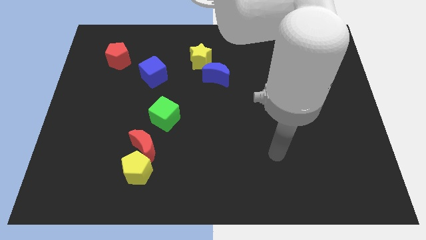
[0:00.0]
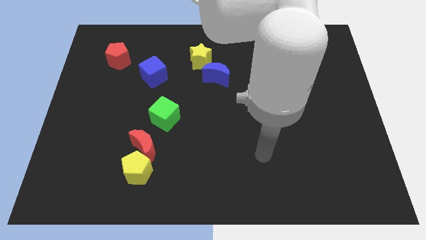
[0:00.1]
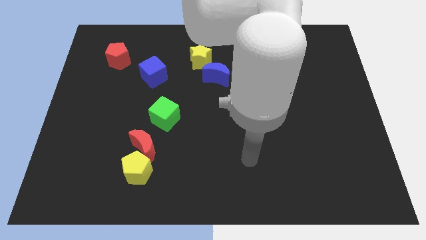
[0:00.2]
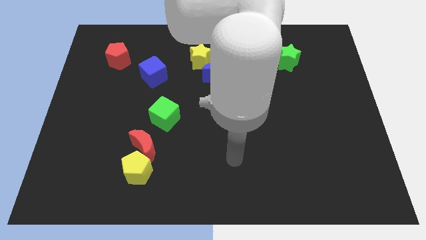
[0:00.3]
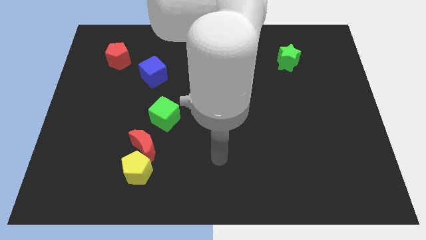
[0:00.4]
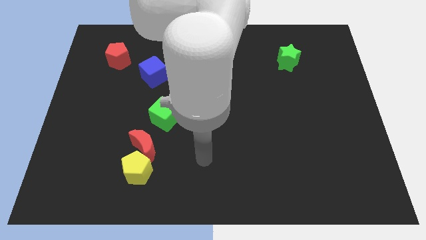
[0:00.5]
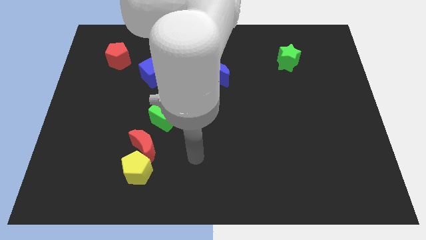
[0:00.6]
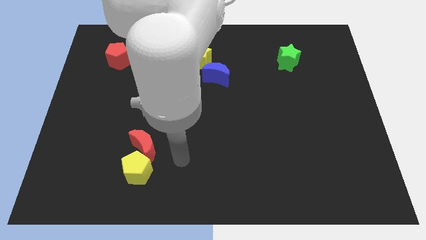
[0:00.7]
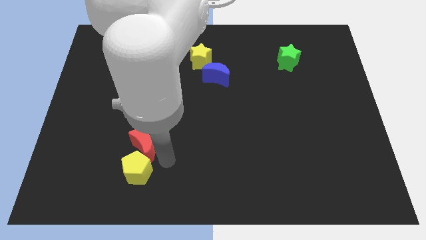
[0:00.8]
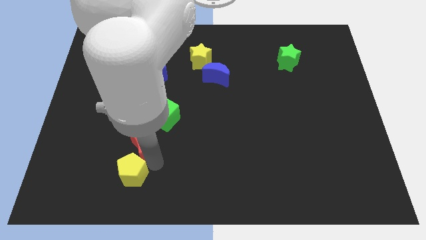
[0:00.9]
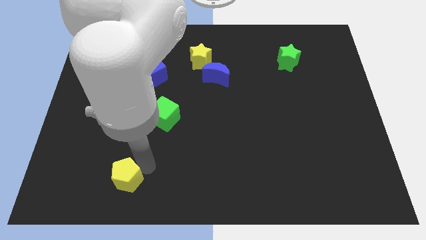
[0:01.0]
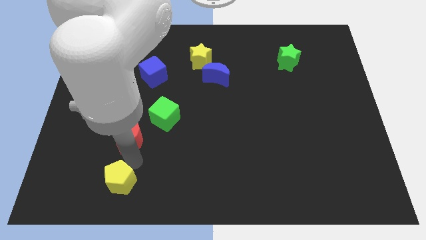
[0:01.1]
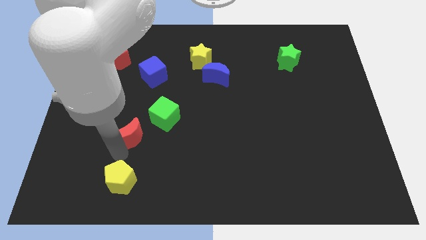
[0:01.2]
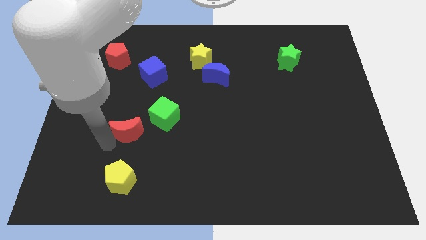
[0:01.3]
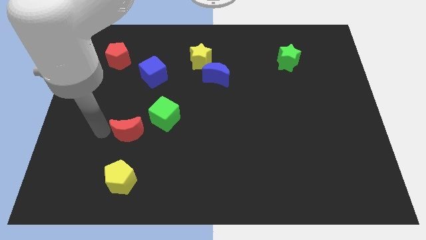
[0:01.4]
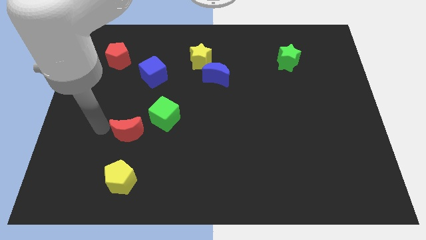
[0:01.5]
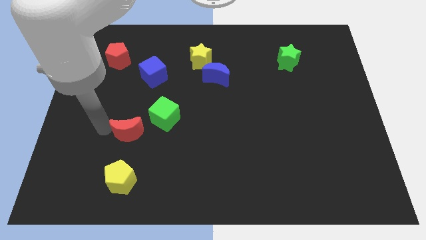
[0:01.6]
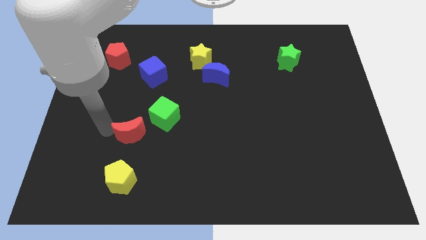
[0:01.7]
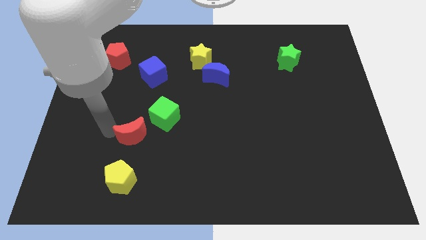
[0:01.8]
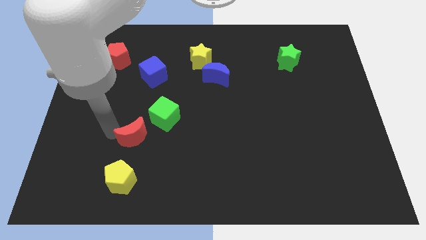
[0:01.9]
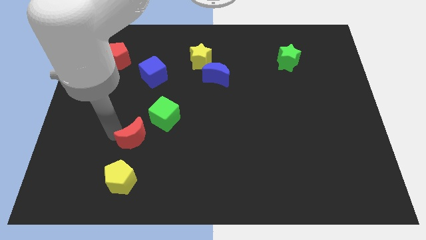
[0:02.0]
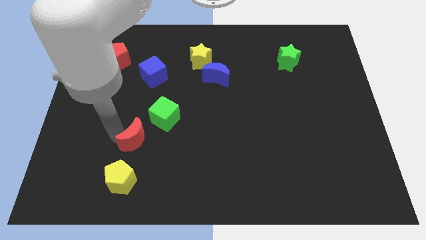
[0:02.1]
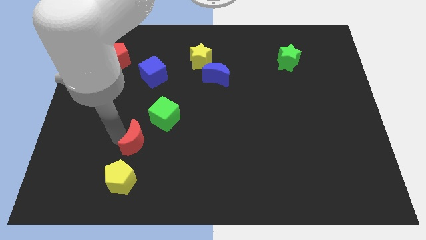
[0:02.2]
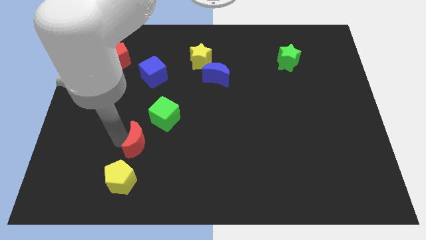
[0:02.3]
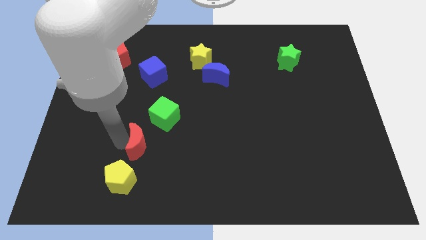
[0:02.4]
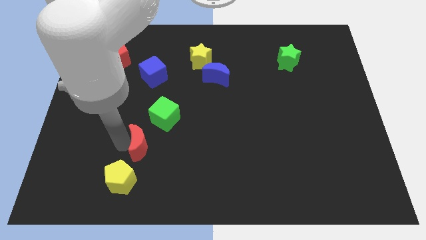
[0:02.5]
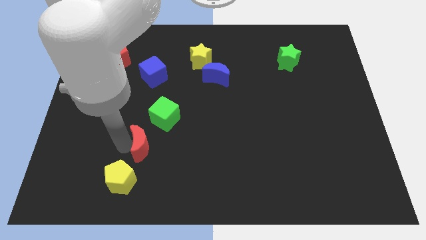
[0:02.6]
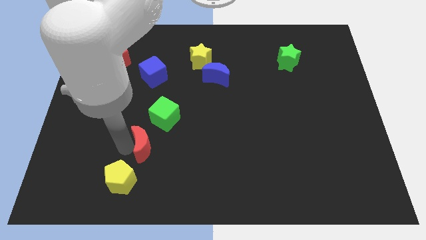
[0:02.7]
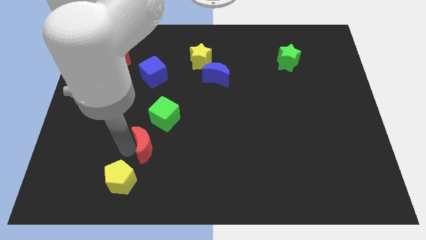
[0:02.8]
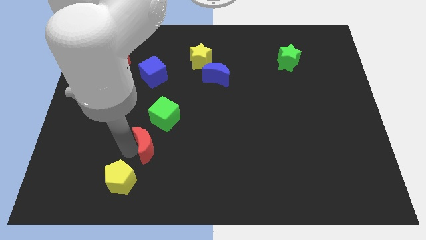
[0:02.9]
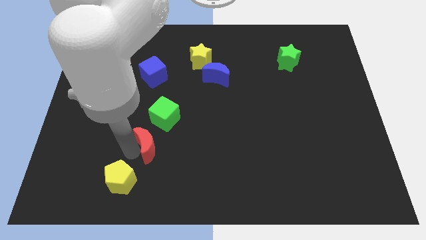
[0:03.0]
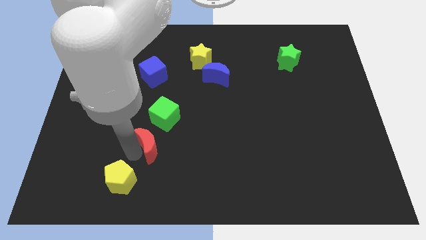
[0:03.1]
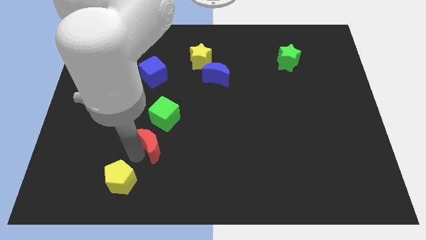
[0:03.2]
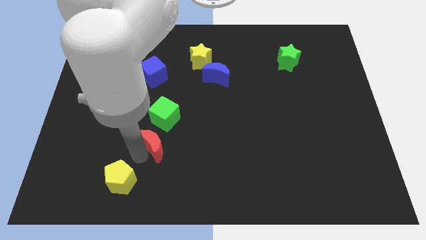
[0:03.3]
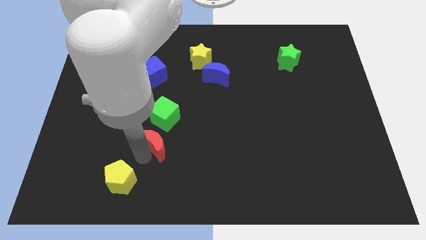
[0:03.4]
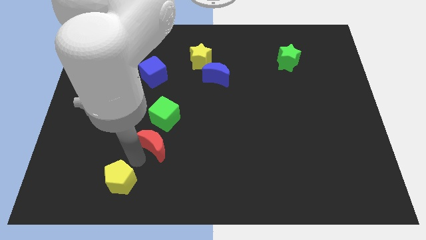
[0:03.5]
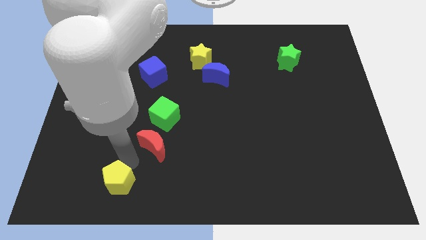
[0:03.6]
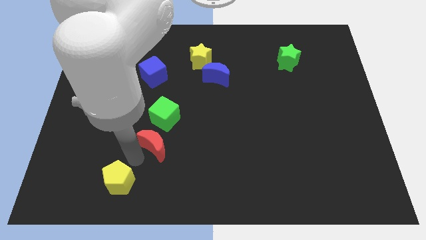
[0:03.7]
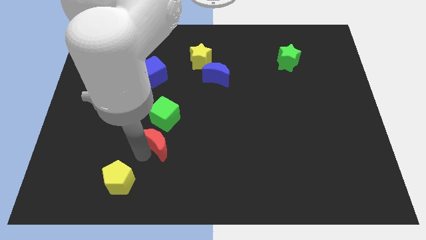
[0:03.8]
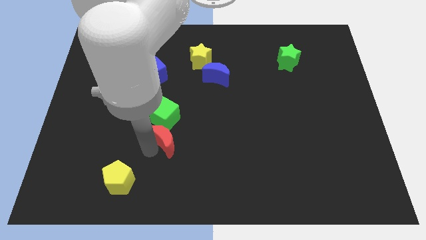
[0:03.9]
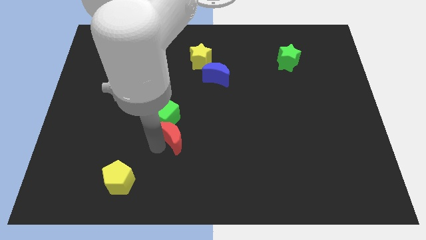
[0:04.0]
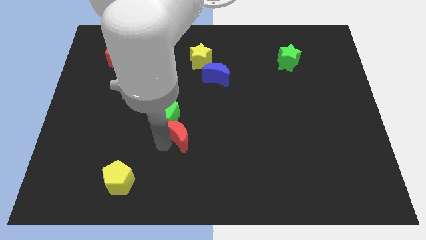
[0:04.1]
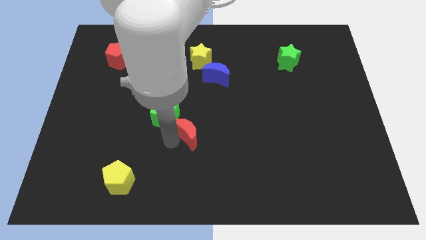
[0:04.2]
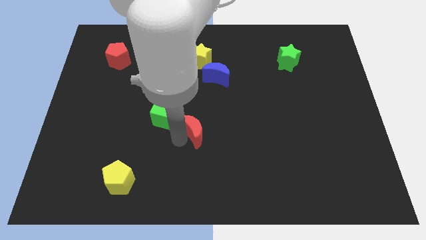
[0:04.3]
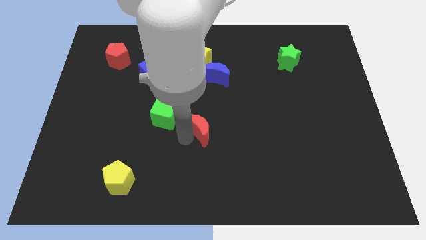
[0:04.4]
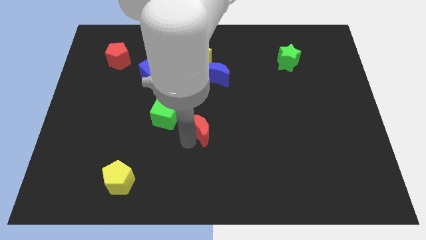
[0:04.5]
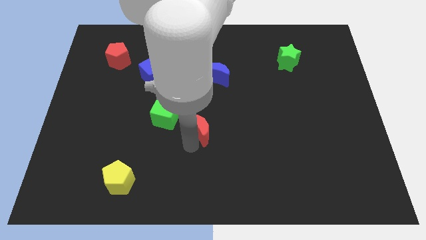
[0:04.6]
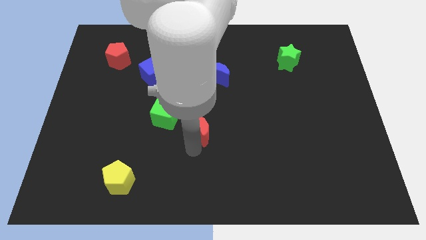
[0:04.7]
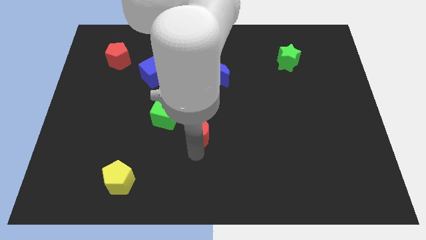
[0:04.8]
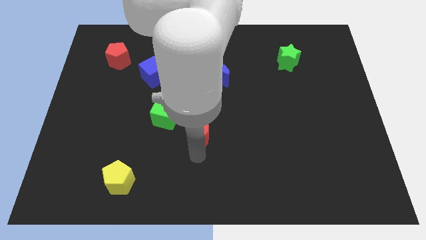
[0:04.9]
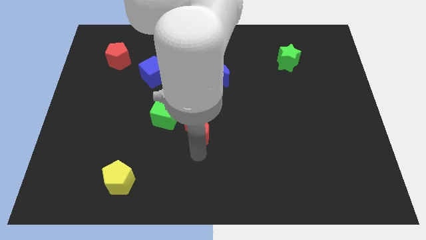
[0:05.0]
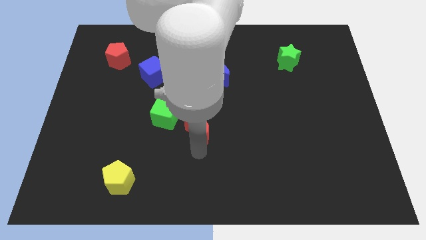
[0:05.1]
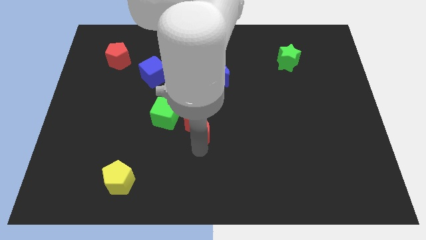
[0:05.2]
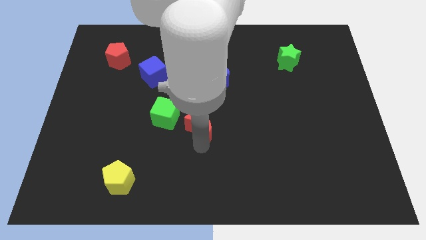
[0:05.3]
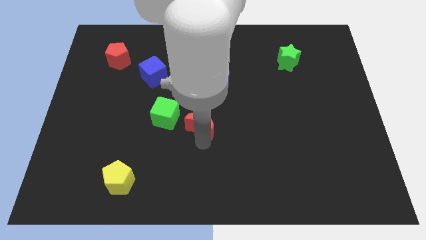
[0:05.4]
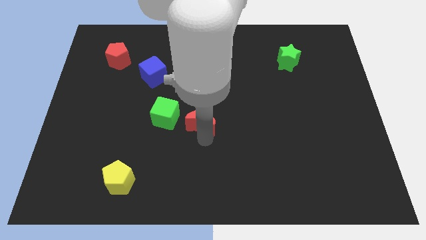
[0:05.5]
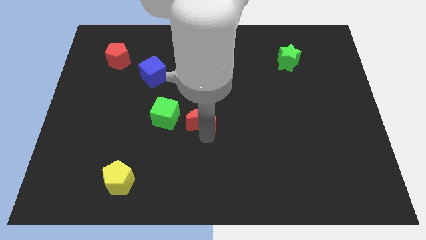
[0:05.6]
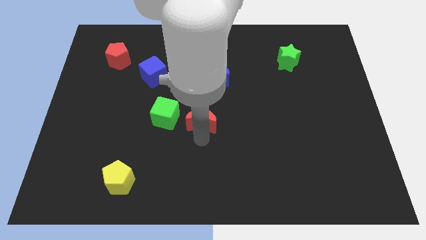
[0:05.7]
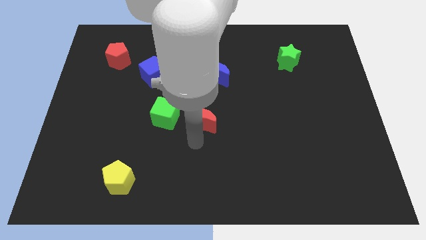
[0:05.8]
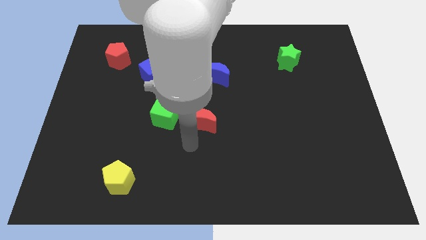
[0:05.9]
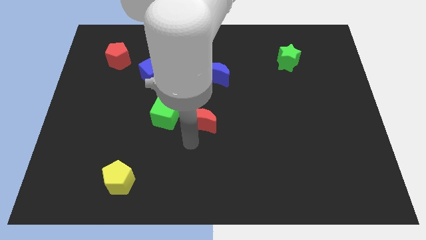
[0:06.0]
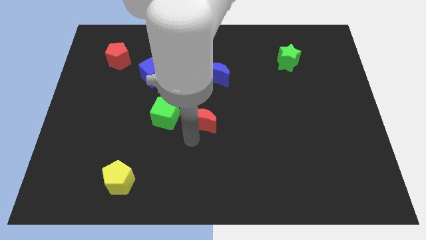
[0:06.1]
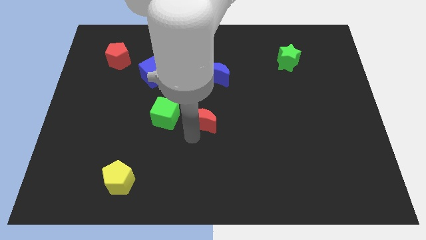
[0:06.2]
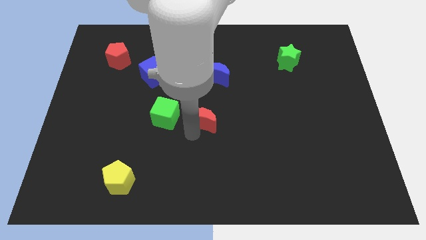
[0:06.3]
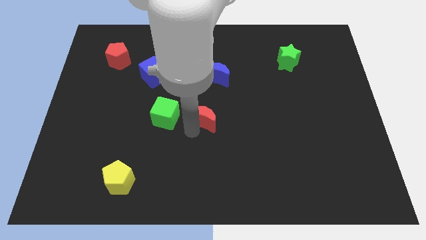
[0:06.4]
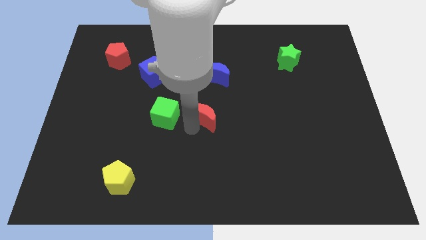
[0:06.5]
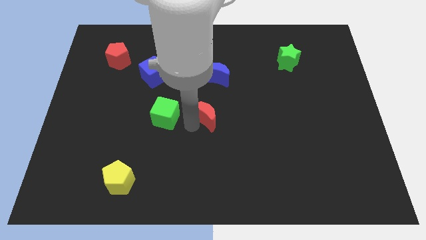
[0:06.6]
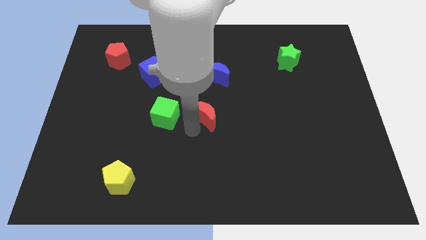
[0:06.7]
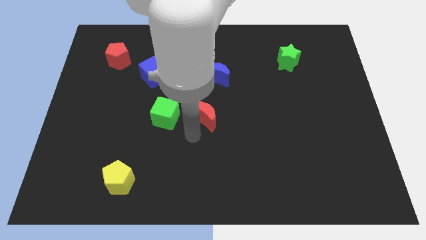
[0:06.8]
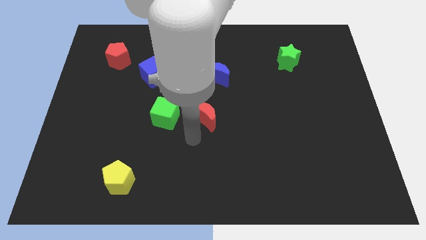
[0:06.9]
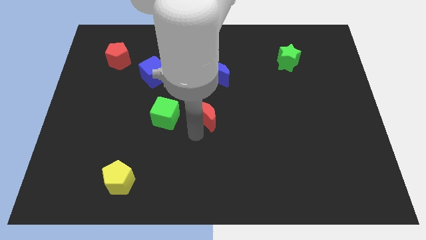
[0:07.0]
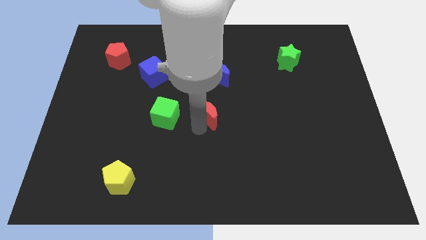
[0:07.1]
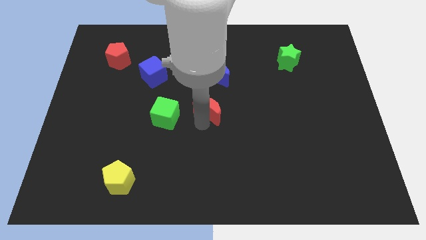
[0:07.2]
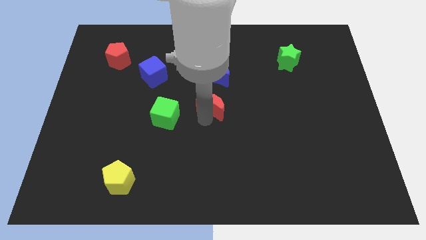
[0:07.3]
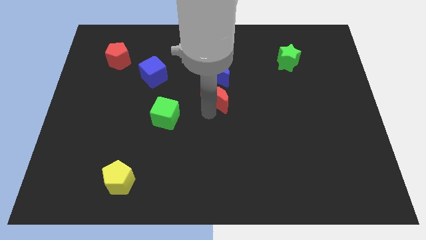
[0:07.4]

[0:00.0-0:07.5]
push the red moon upwards and right

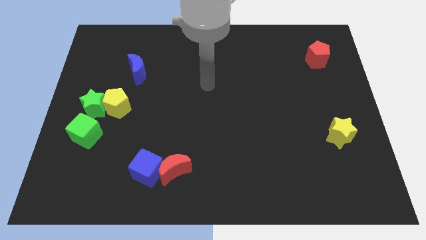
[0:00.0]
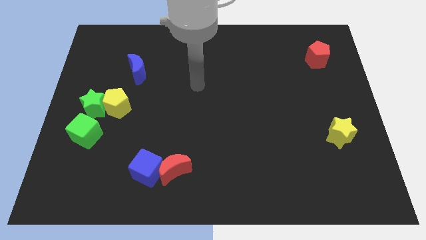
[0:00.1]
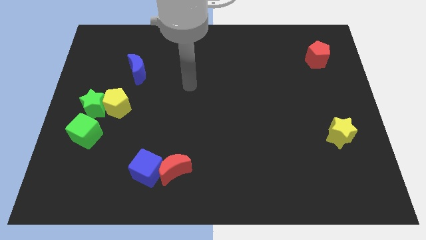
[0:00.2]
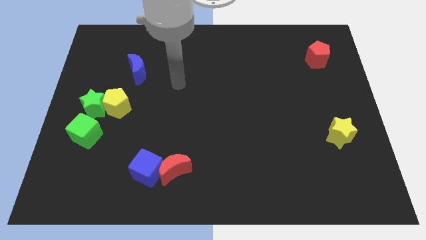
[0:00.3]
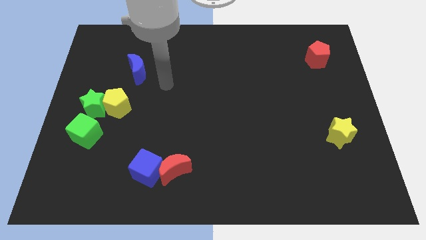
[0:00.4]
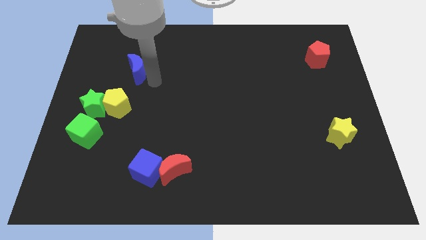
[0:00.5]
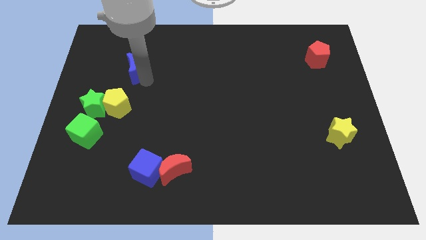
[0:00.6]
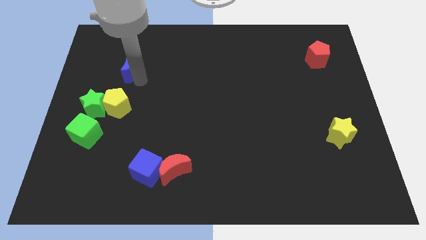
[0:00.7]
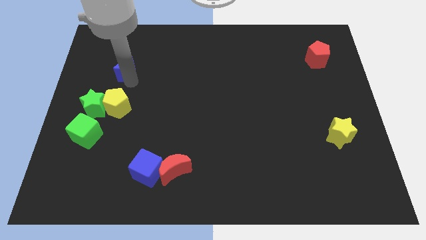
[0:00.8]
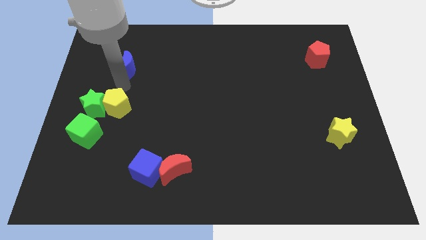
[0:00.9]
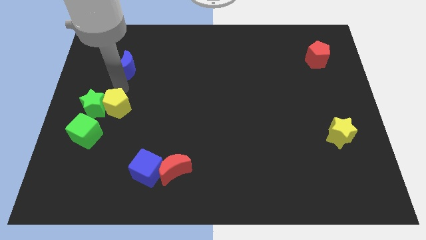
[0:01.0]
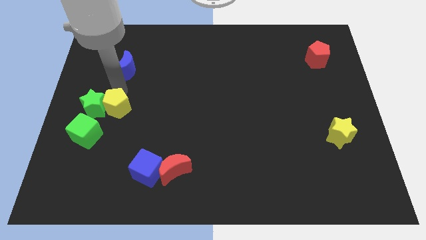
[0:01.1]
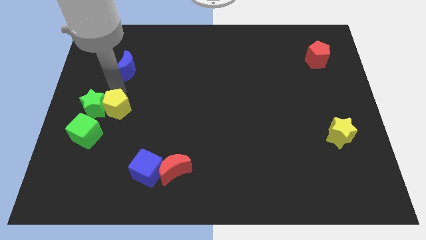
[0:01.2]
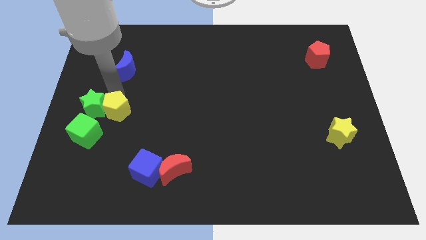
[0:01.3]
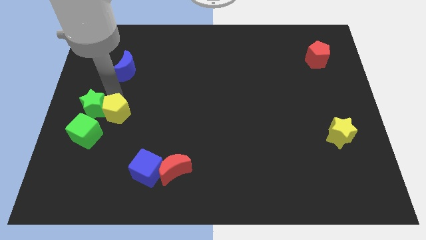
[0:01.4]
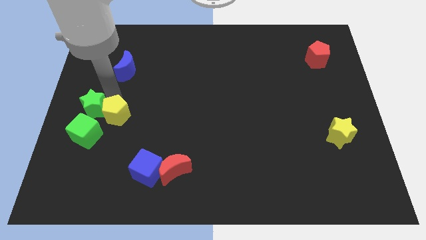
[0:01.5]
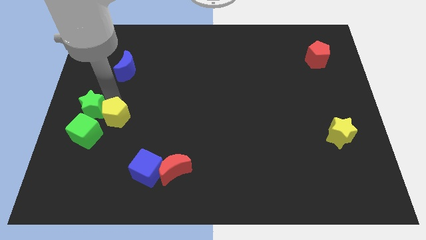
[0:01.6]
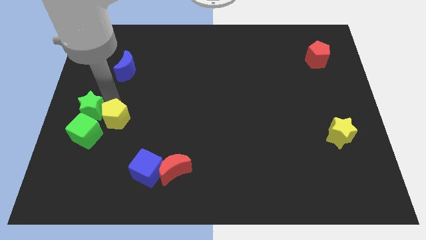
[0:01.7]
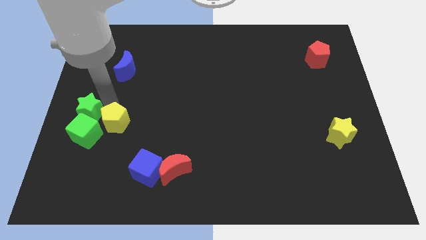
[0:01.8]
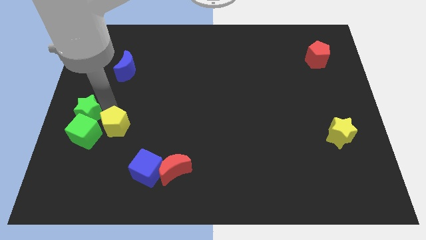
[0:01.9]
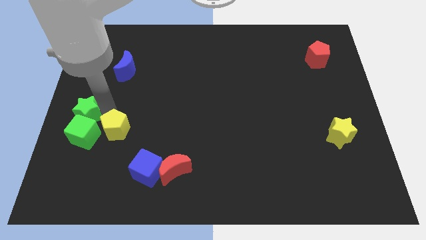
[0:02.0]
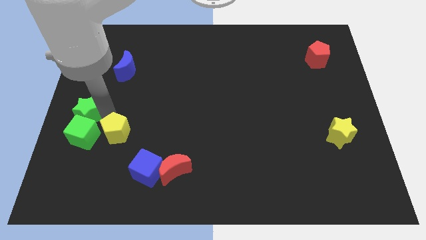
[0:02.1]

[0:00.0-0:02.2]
push the yellow pentagon down a little
